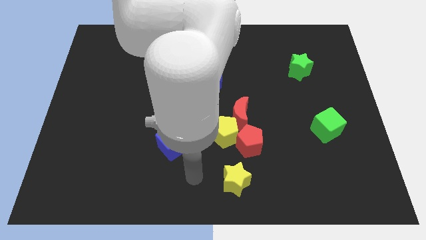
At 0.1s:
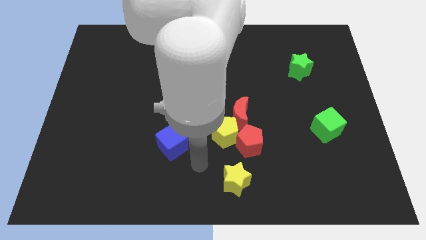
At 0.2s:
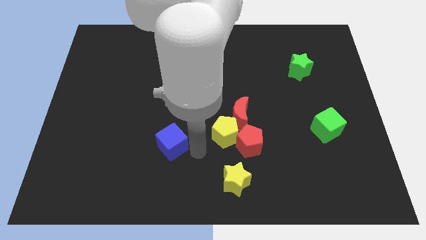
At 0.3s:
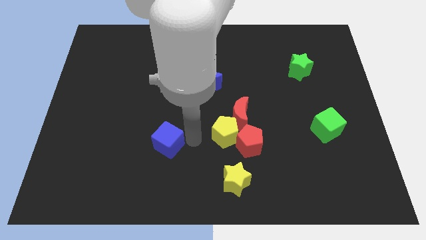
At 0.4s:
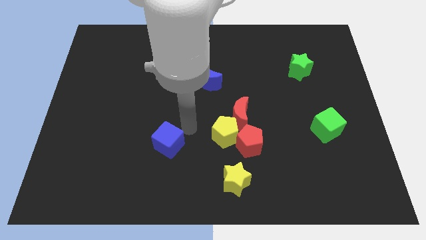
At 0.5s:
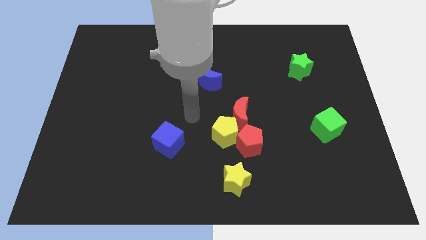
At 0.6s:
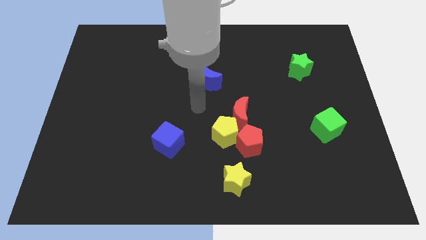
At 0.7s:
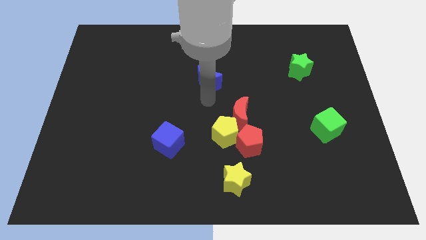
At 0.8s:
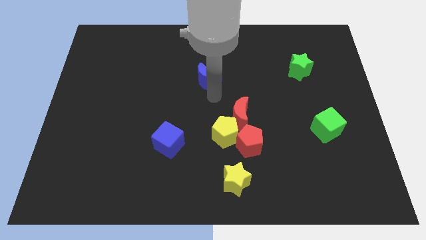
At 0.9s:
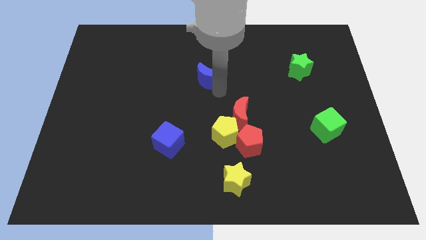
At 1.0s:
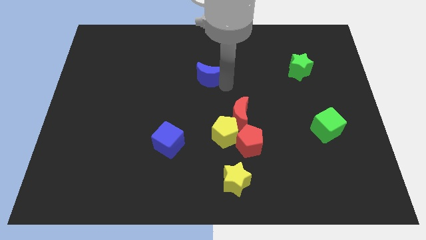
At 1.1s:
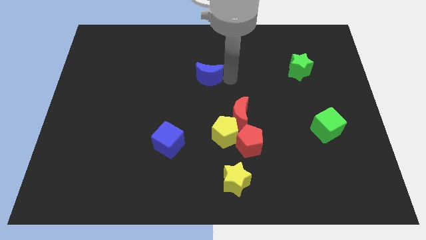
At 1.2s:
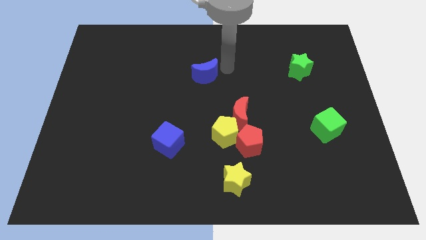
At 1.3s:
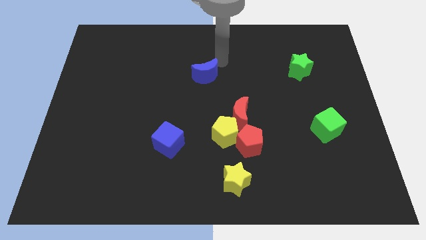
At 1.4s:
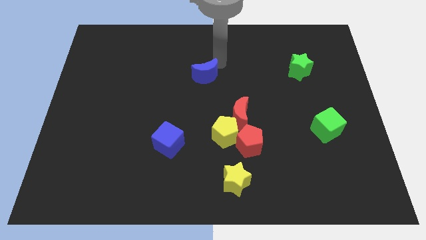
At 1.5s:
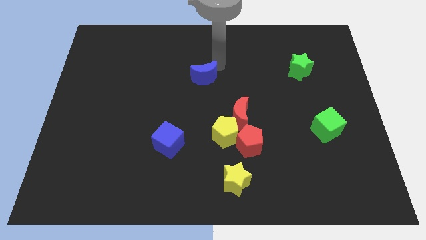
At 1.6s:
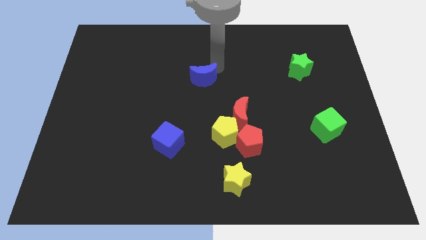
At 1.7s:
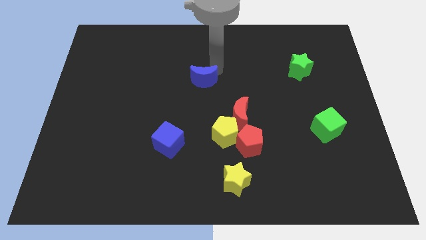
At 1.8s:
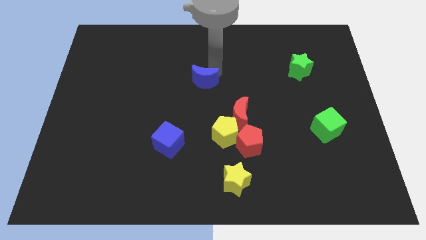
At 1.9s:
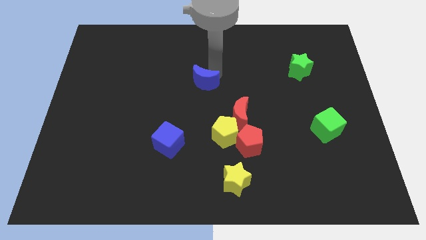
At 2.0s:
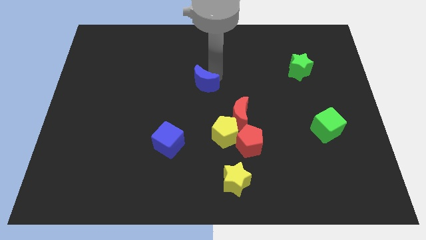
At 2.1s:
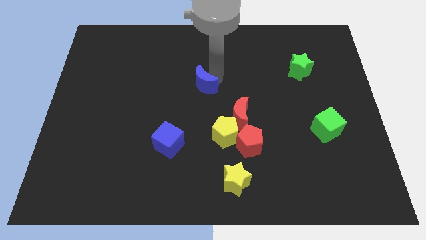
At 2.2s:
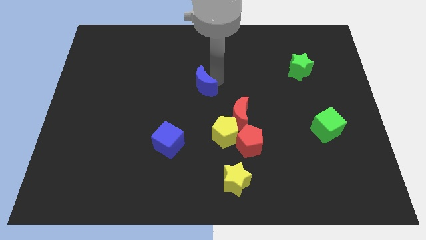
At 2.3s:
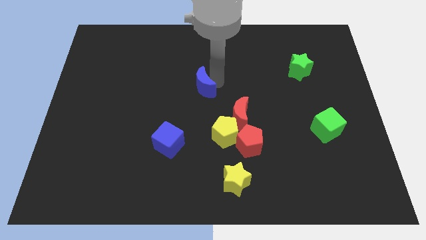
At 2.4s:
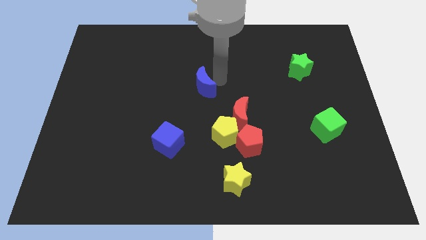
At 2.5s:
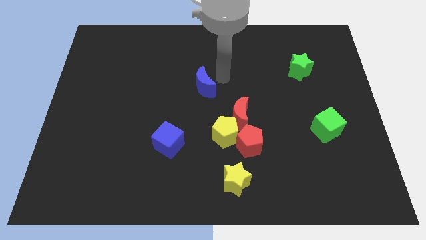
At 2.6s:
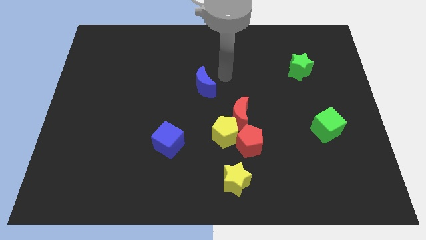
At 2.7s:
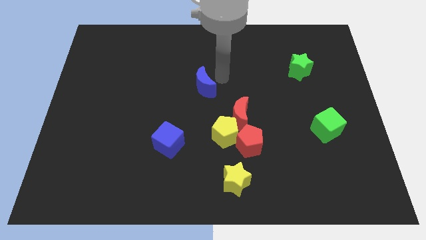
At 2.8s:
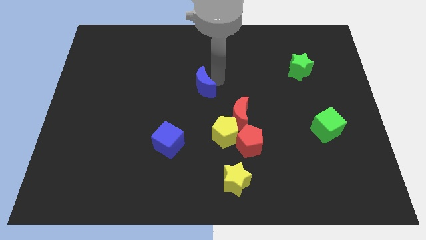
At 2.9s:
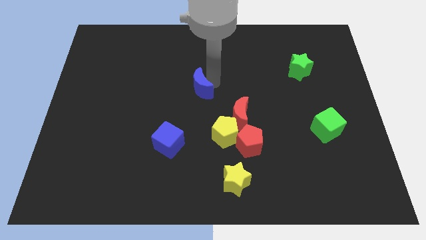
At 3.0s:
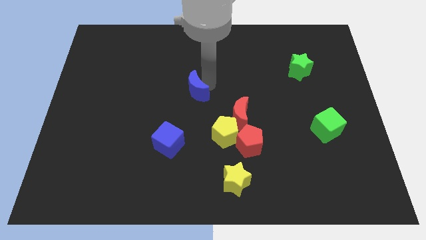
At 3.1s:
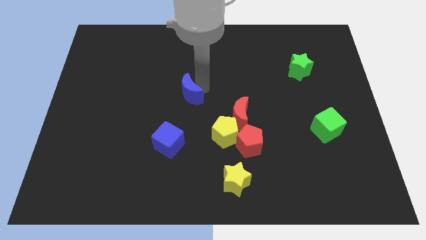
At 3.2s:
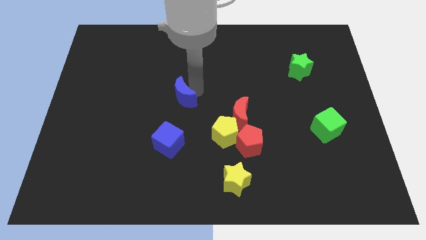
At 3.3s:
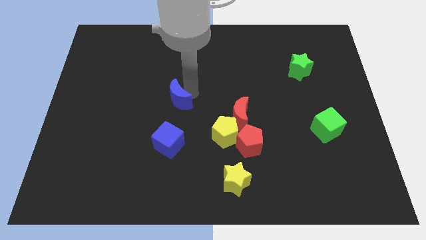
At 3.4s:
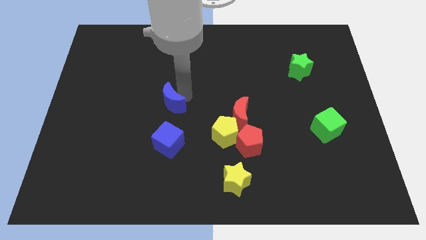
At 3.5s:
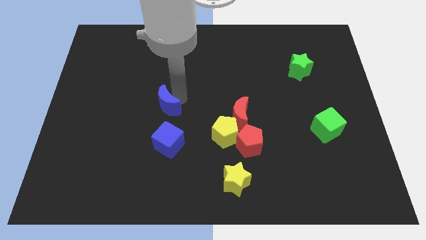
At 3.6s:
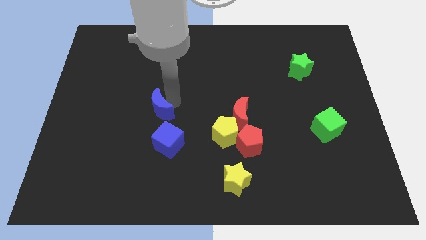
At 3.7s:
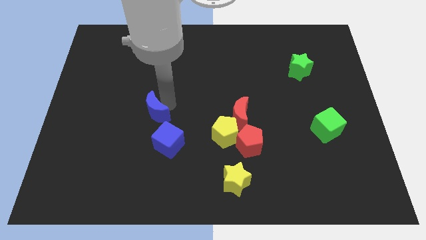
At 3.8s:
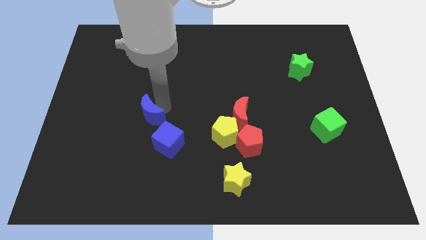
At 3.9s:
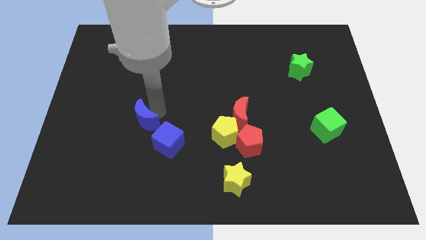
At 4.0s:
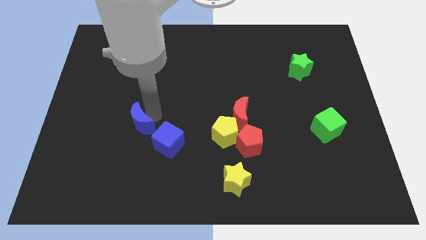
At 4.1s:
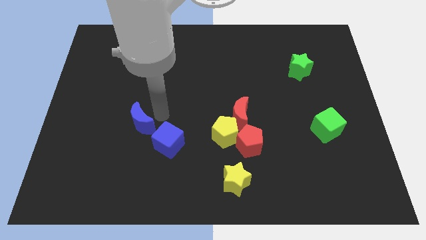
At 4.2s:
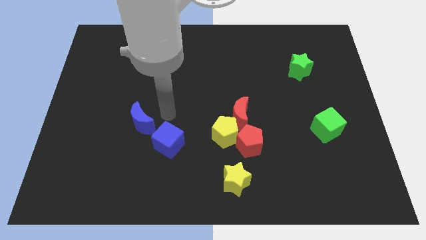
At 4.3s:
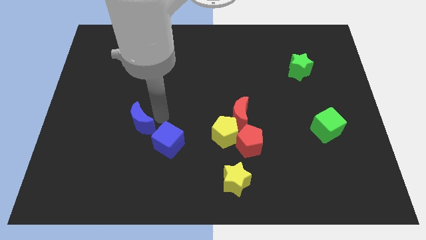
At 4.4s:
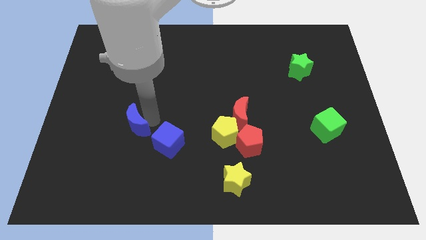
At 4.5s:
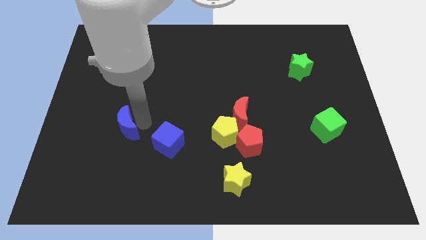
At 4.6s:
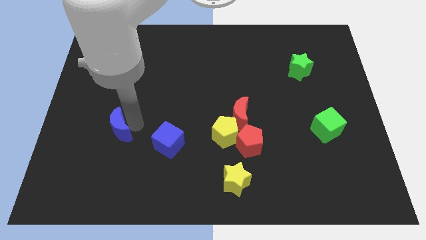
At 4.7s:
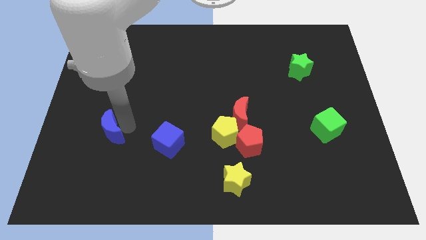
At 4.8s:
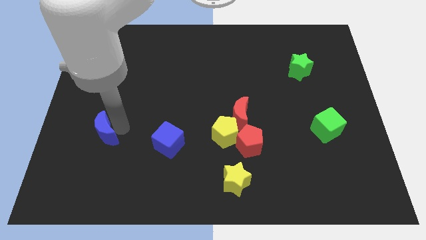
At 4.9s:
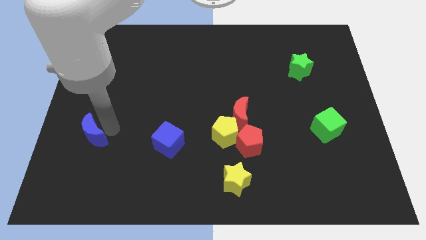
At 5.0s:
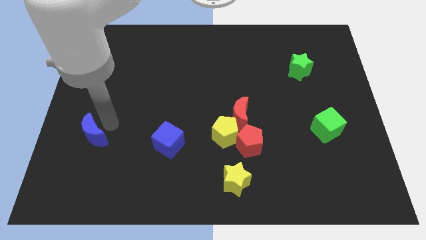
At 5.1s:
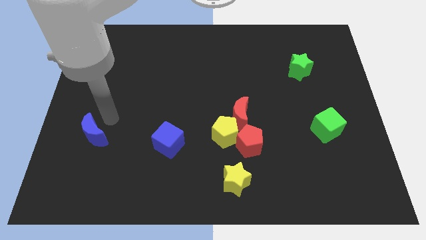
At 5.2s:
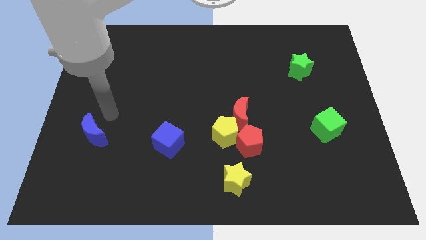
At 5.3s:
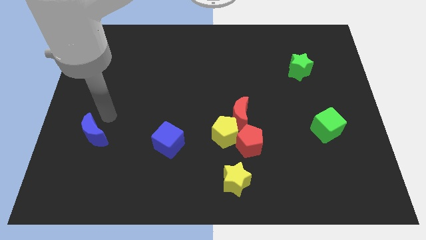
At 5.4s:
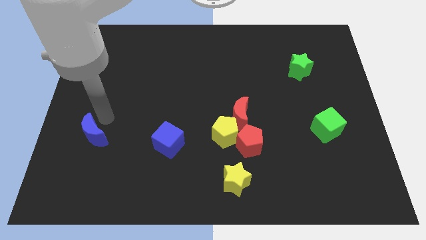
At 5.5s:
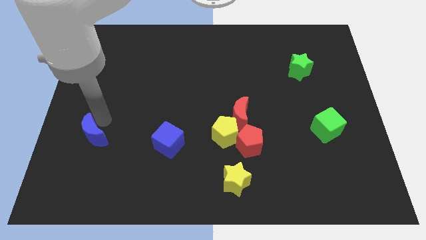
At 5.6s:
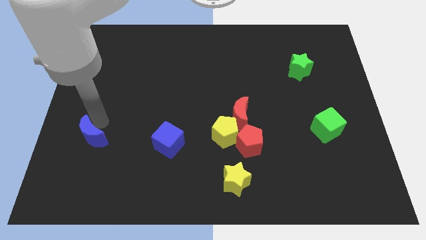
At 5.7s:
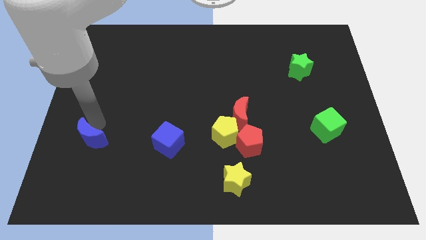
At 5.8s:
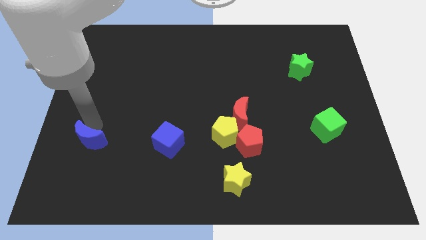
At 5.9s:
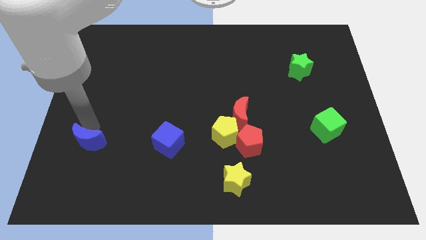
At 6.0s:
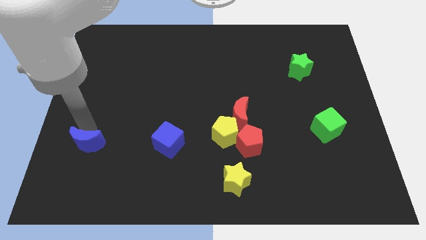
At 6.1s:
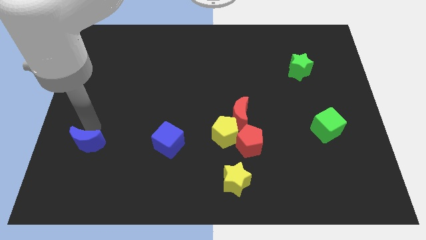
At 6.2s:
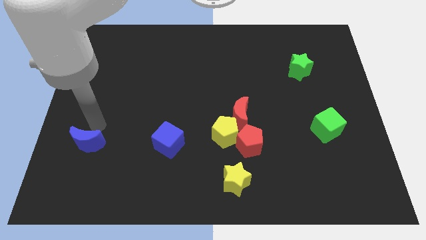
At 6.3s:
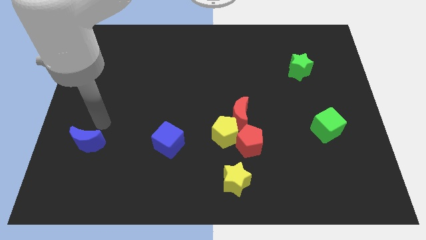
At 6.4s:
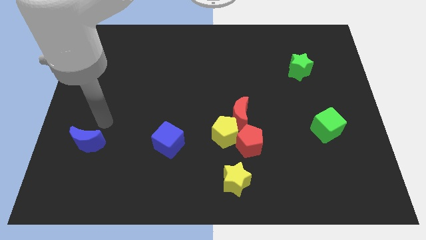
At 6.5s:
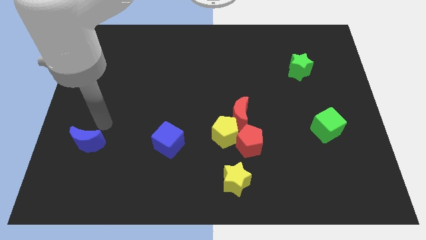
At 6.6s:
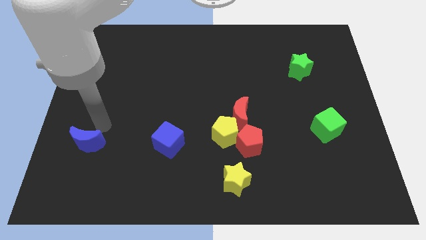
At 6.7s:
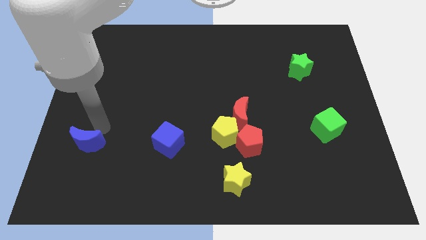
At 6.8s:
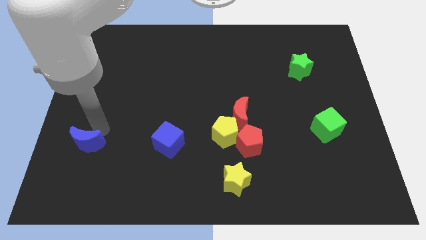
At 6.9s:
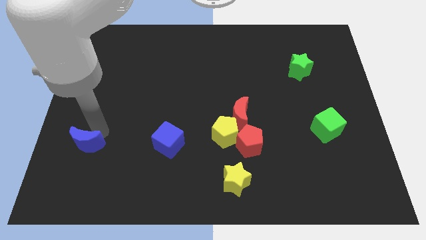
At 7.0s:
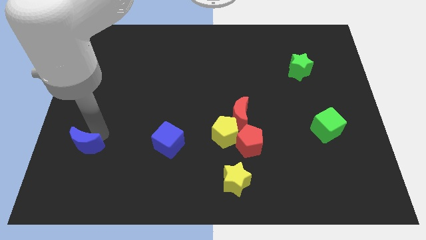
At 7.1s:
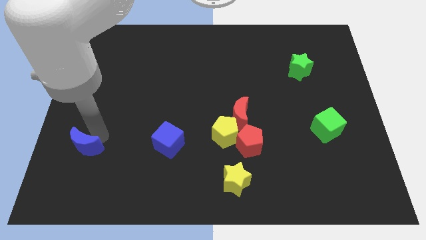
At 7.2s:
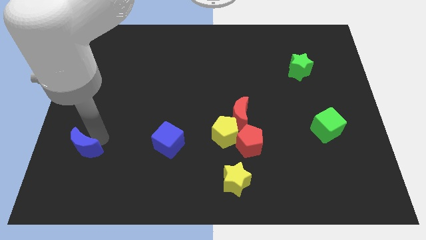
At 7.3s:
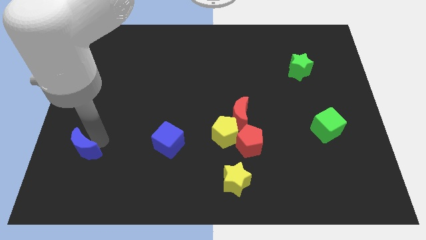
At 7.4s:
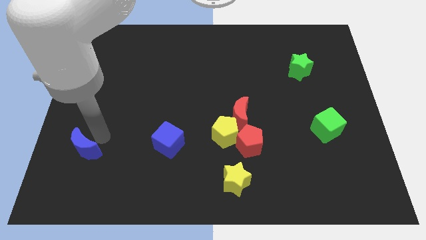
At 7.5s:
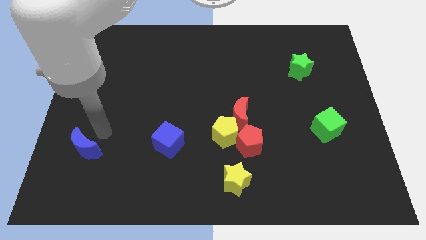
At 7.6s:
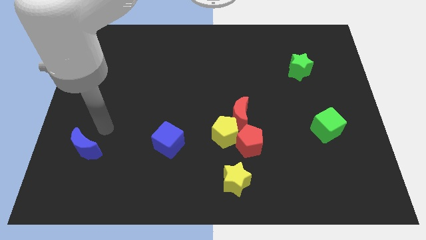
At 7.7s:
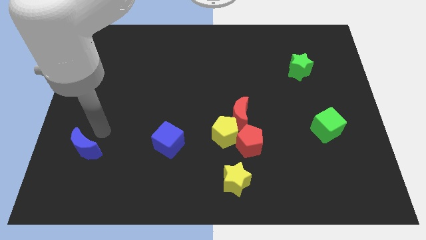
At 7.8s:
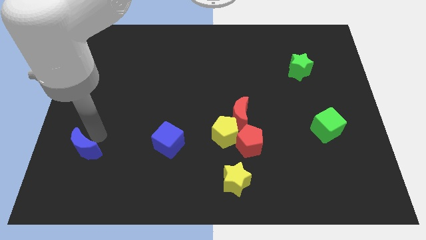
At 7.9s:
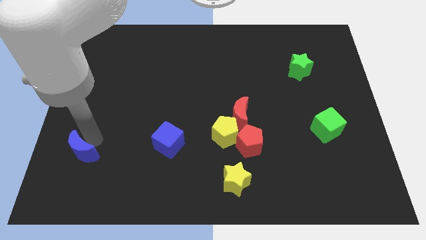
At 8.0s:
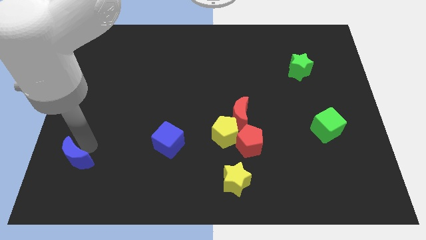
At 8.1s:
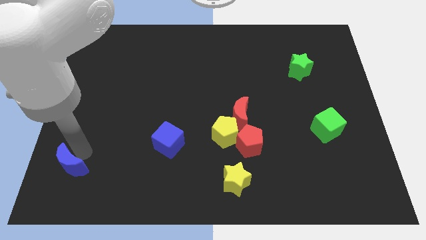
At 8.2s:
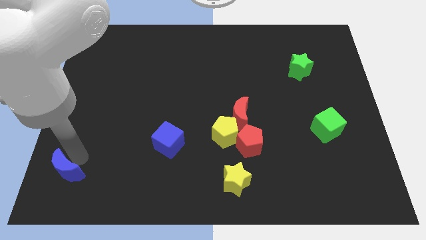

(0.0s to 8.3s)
move the blue moon to the lower left corner
